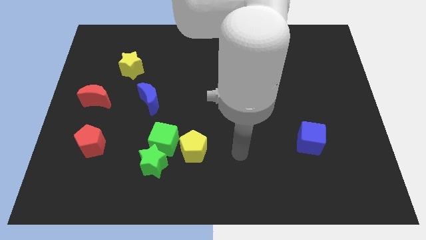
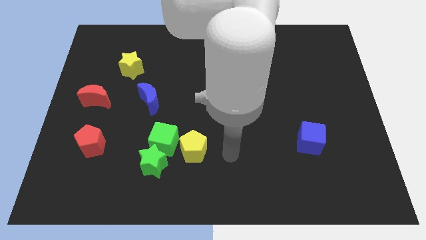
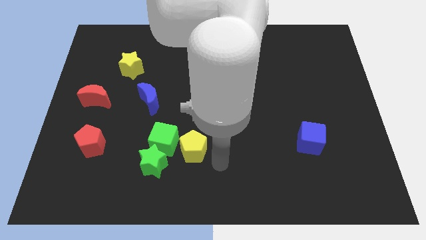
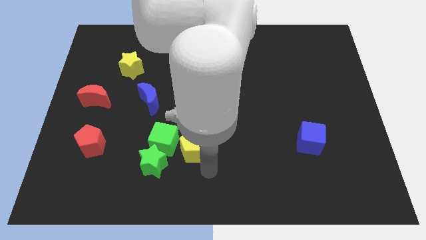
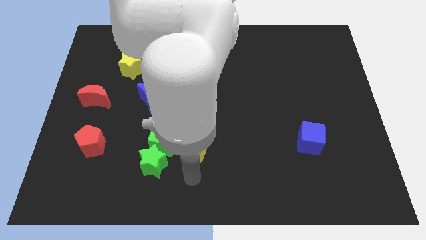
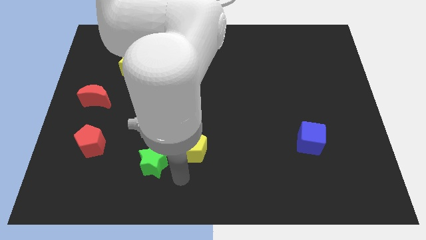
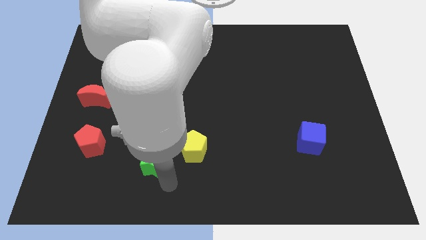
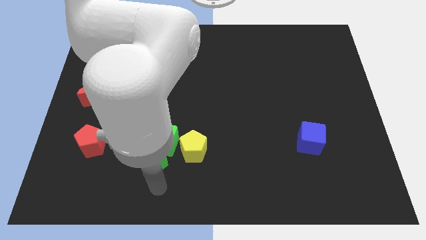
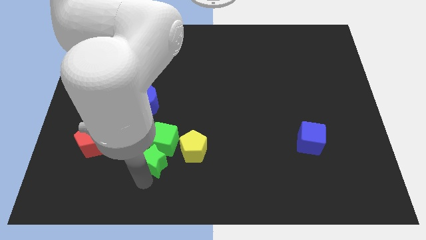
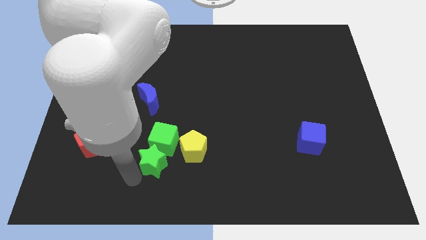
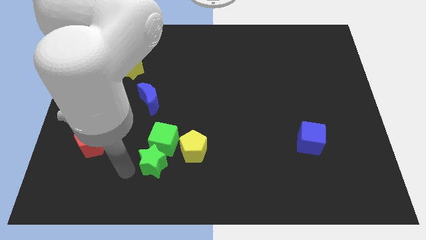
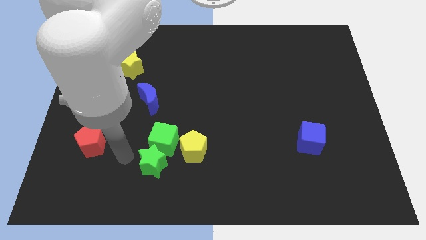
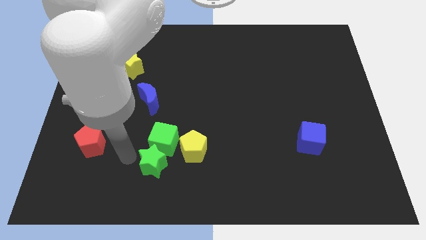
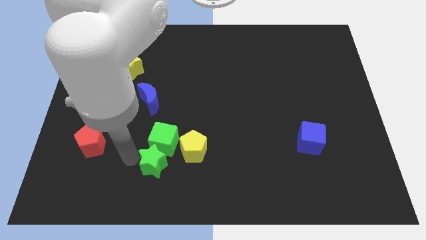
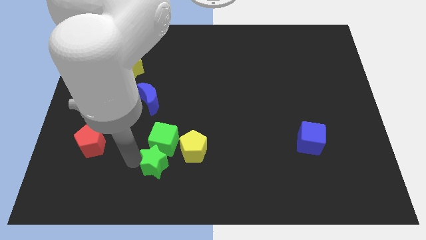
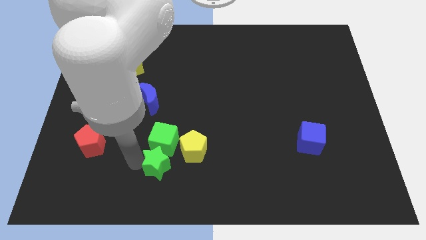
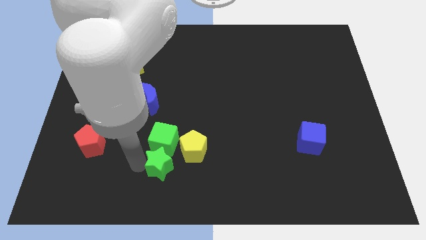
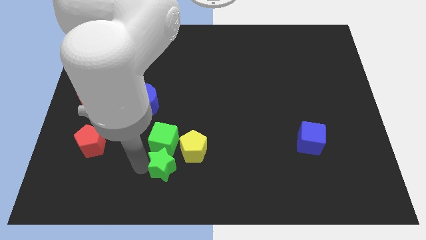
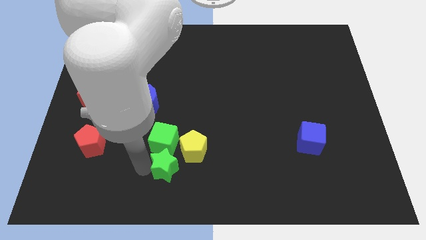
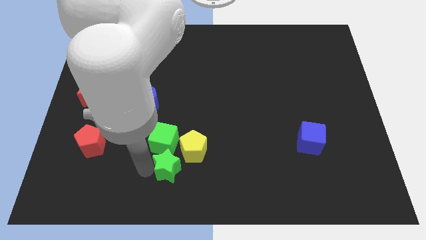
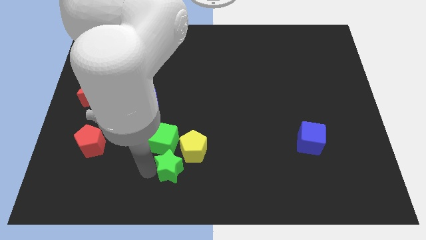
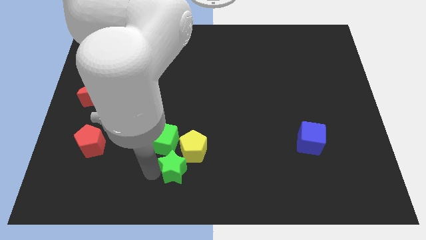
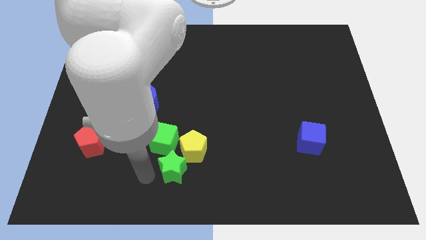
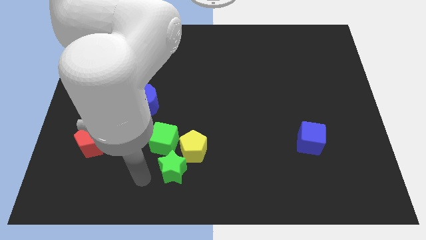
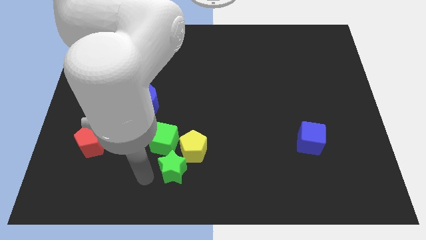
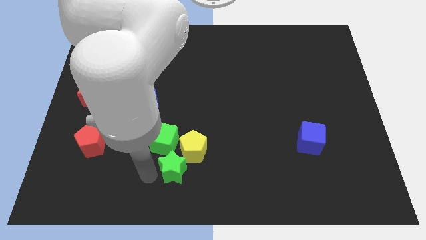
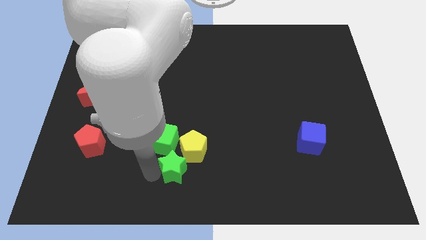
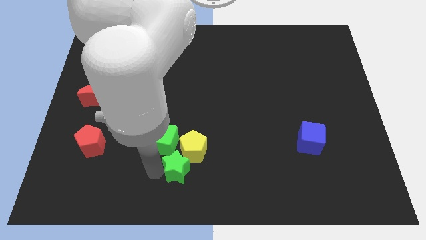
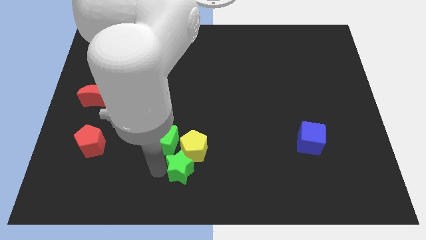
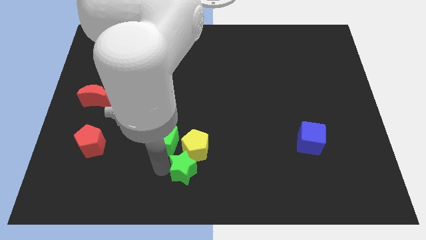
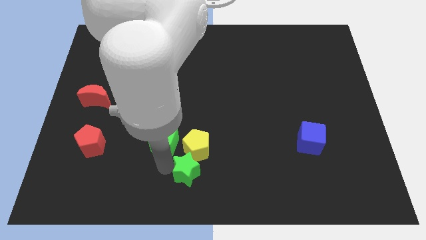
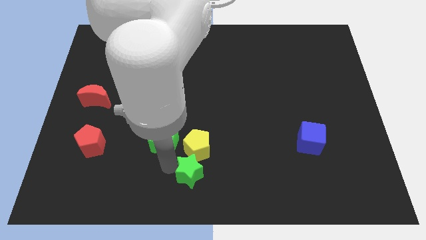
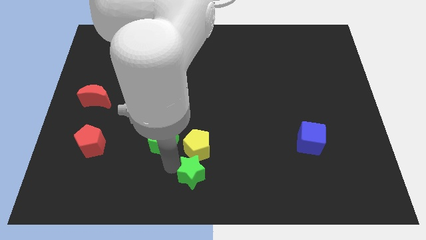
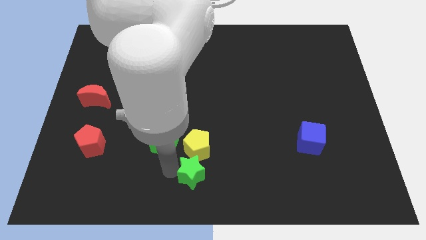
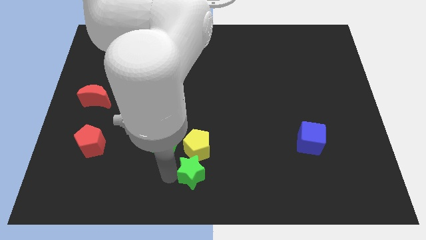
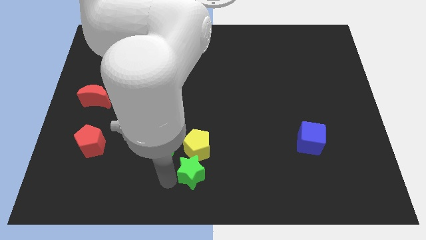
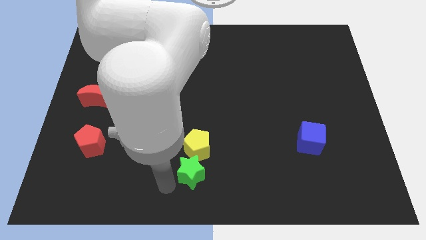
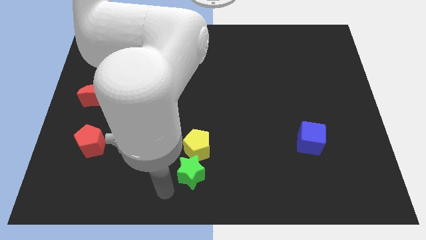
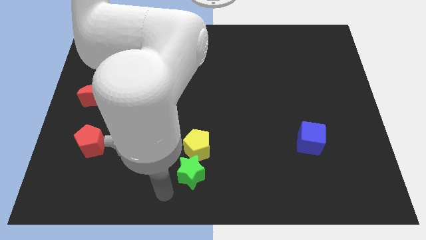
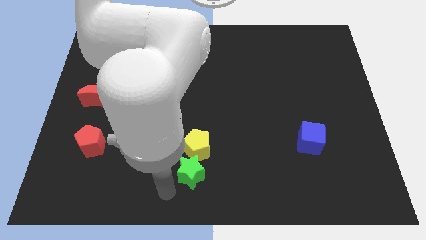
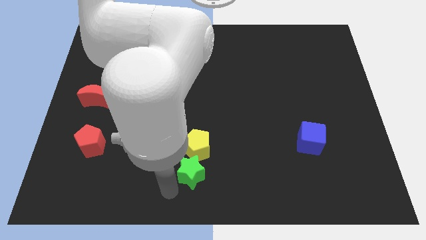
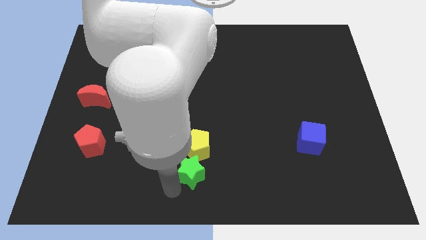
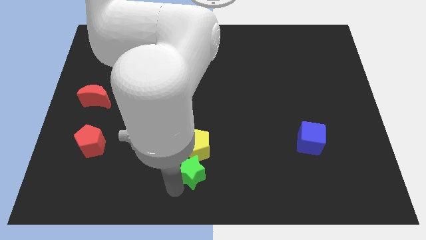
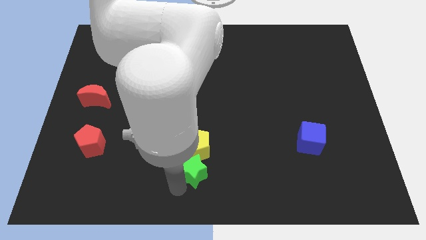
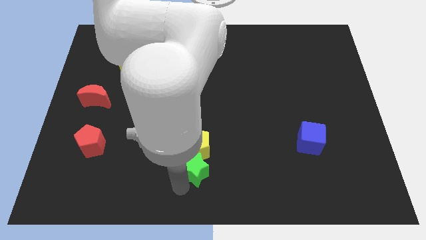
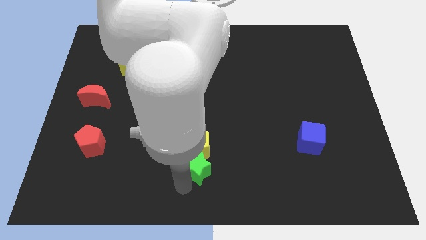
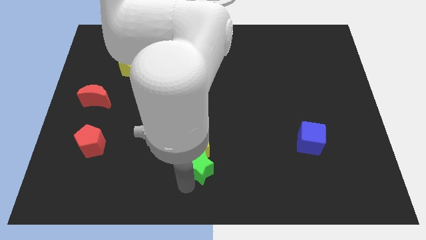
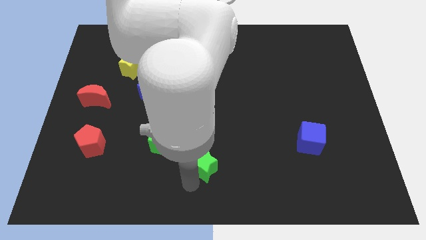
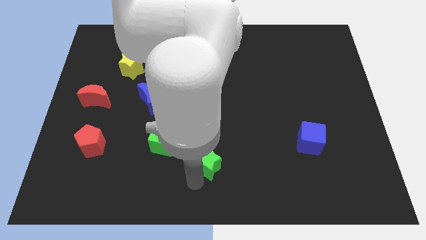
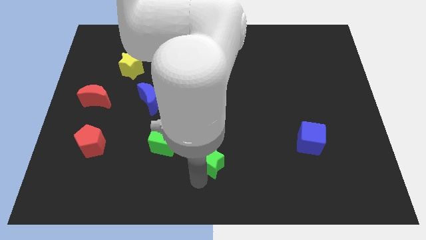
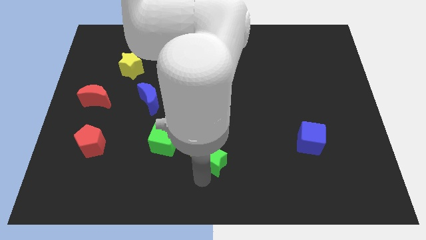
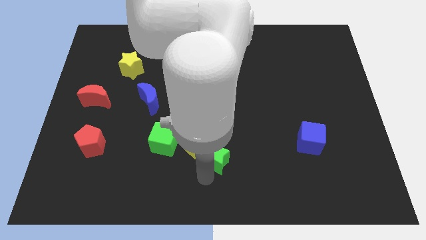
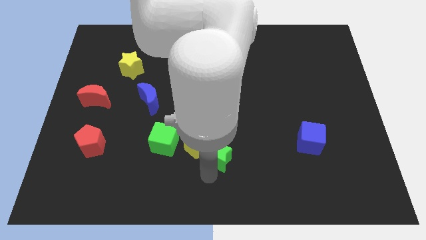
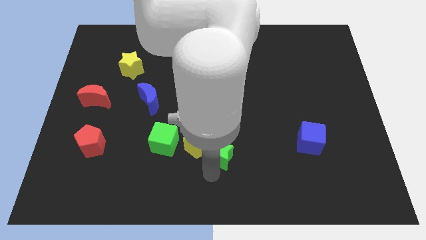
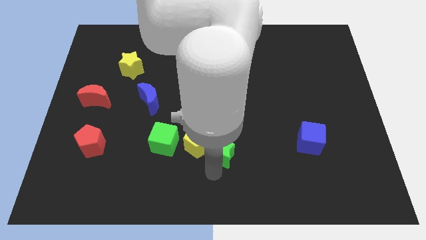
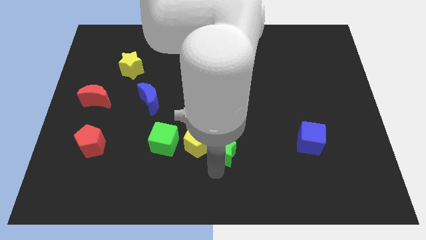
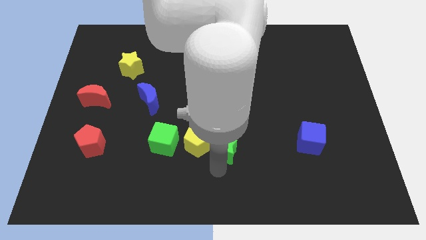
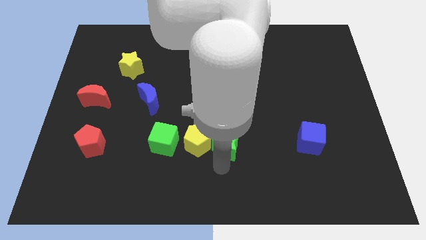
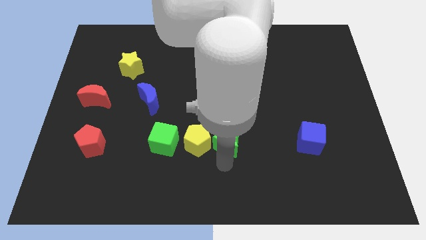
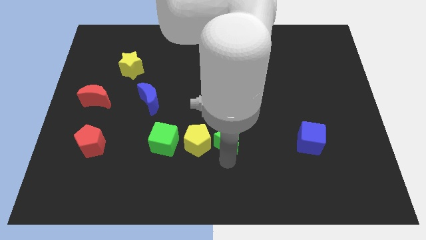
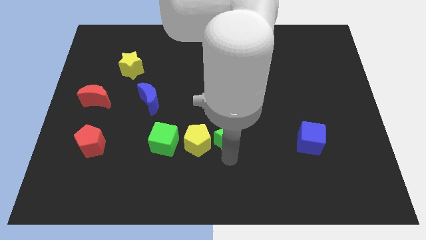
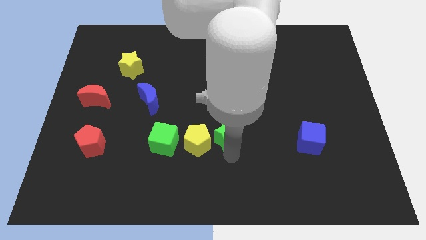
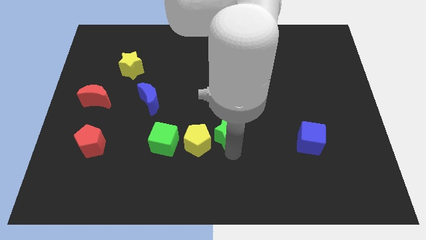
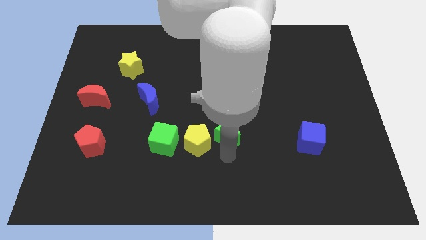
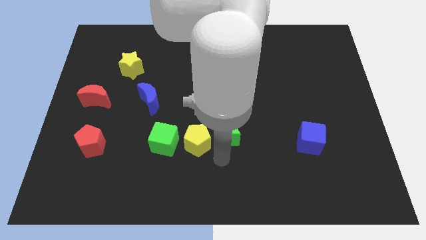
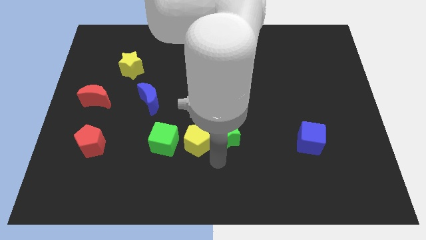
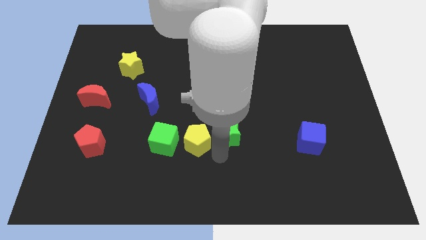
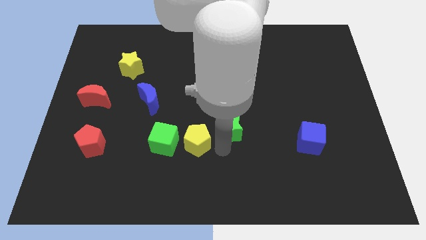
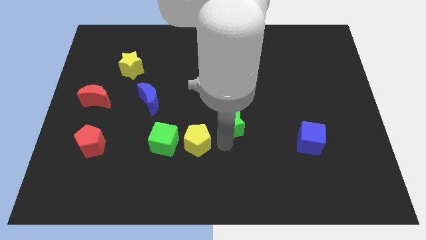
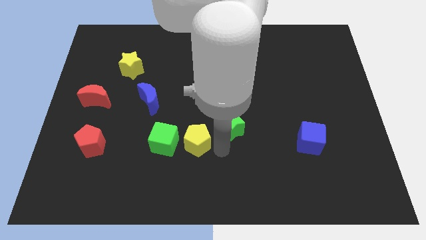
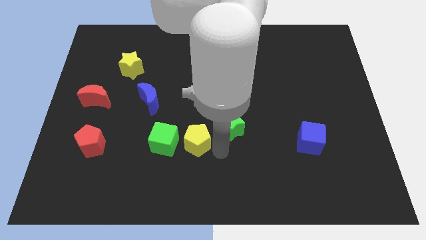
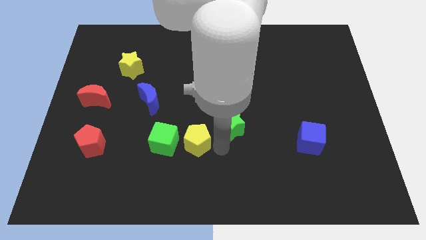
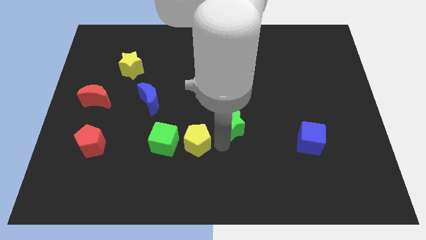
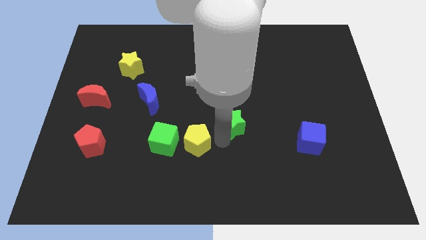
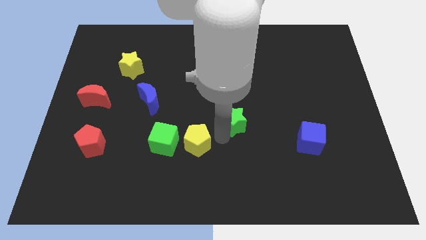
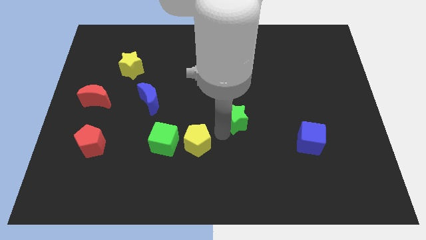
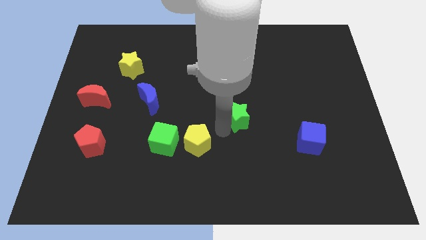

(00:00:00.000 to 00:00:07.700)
push the green star up and right
